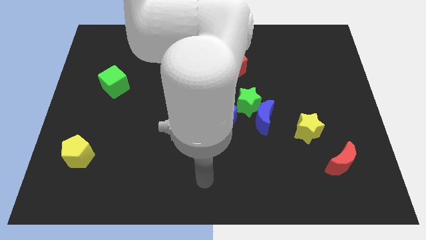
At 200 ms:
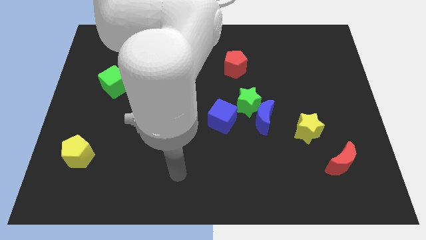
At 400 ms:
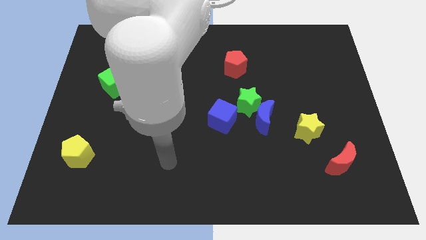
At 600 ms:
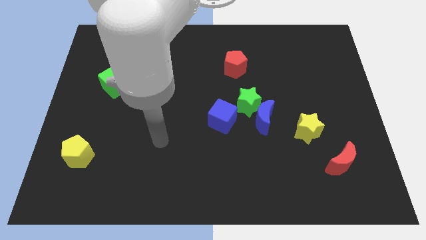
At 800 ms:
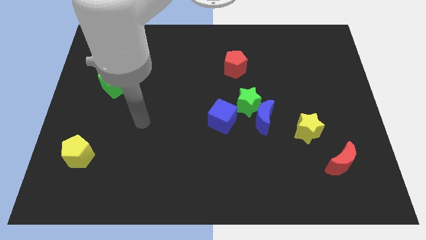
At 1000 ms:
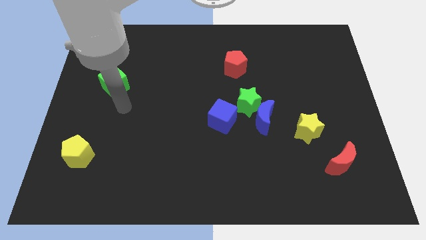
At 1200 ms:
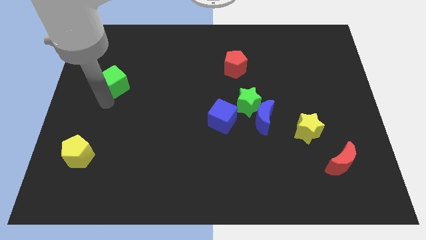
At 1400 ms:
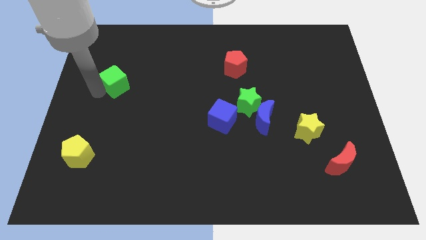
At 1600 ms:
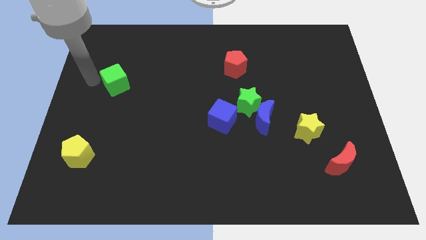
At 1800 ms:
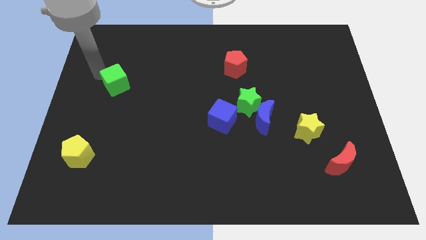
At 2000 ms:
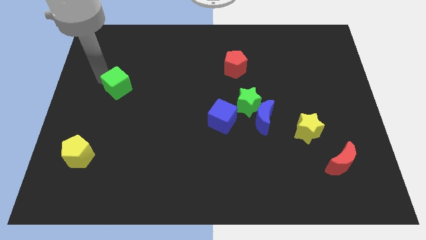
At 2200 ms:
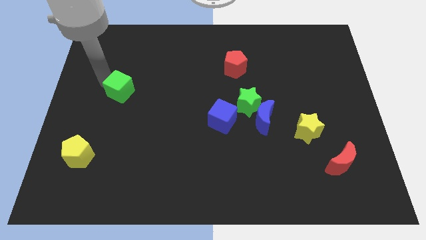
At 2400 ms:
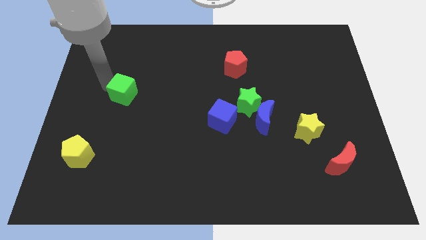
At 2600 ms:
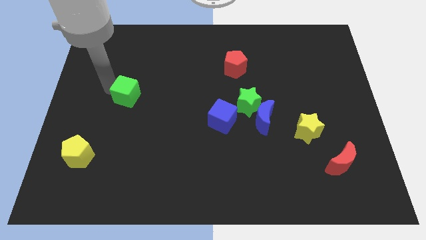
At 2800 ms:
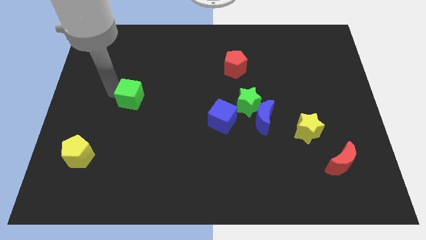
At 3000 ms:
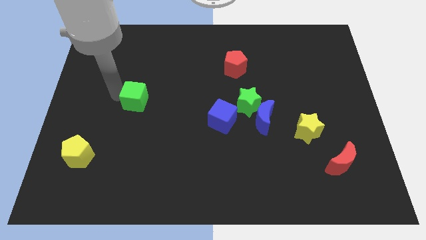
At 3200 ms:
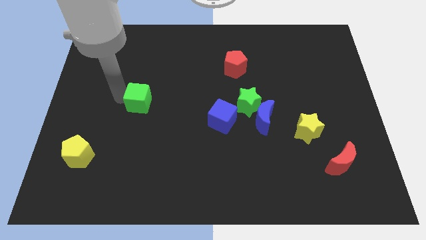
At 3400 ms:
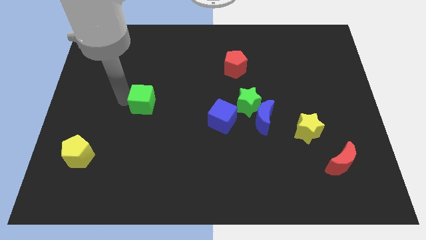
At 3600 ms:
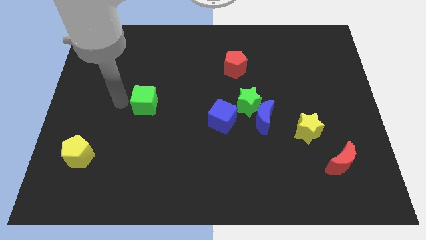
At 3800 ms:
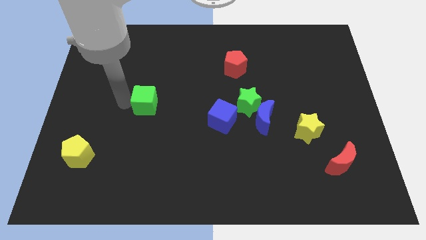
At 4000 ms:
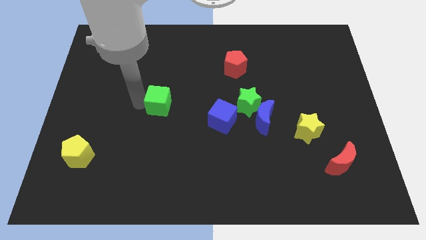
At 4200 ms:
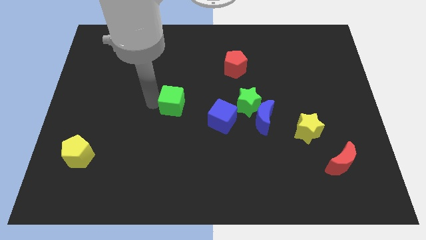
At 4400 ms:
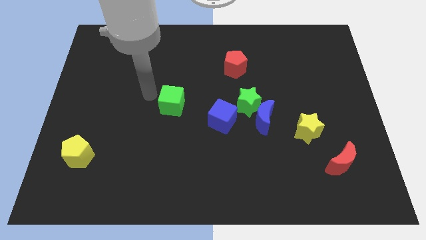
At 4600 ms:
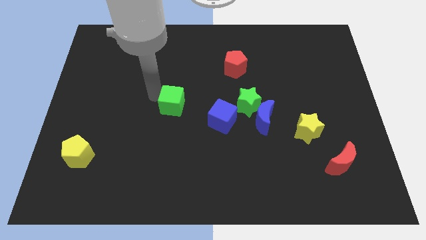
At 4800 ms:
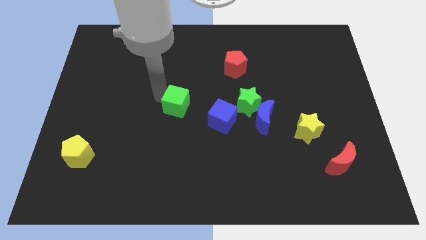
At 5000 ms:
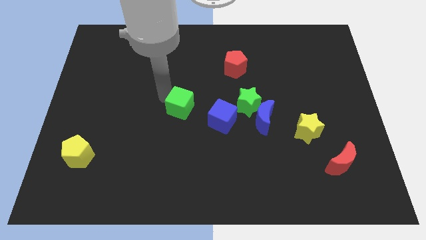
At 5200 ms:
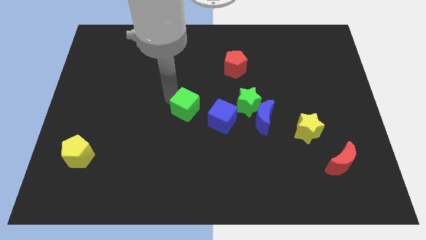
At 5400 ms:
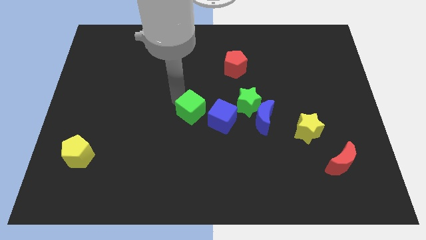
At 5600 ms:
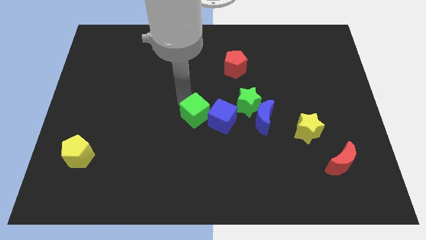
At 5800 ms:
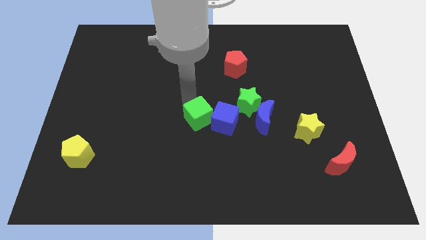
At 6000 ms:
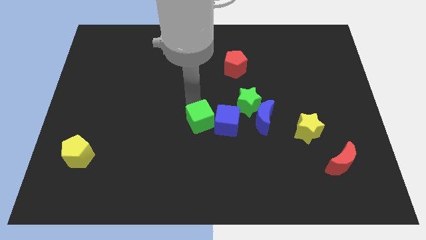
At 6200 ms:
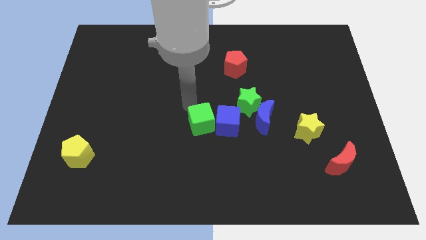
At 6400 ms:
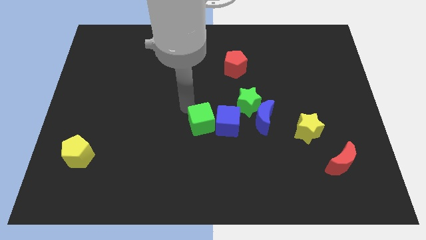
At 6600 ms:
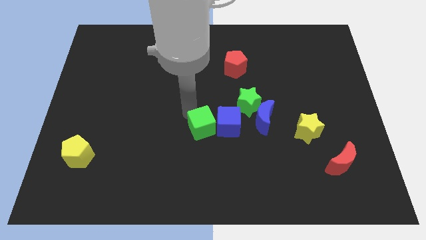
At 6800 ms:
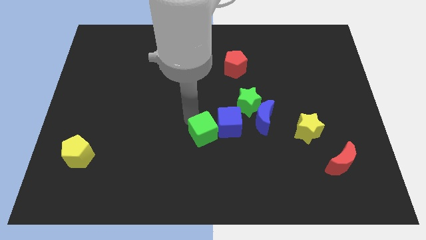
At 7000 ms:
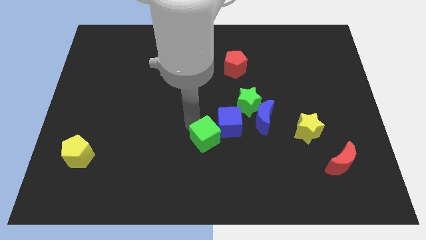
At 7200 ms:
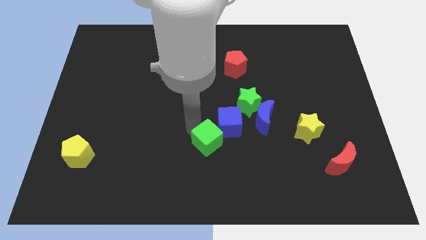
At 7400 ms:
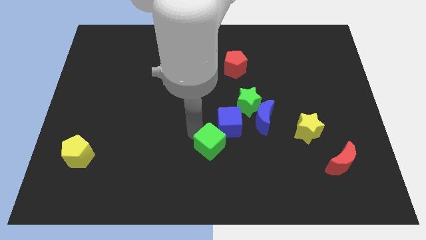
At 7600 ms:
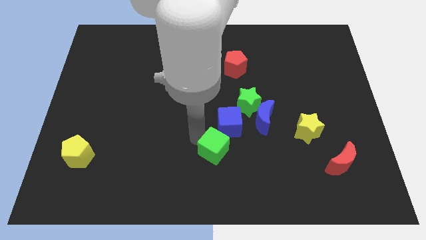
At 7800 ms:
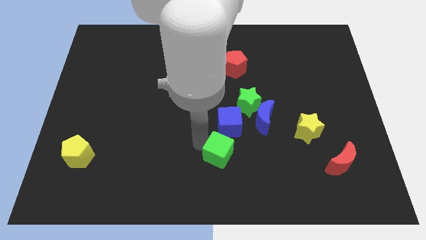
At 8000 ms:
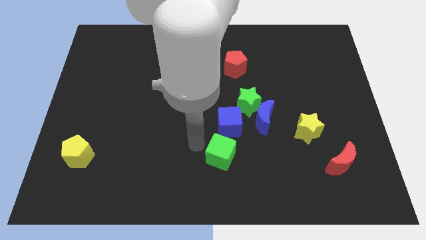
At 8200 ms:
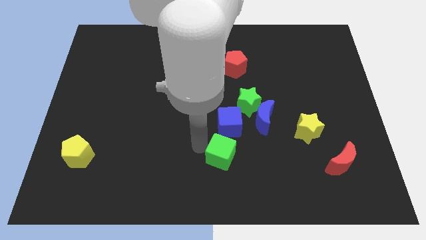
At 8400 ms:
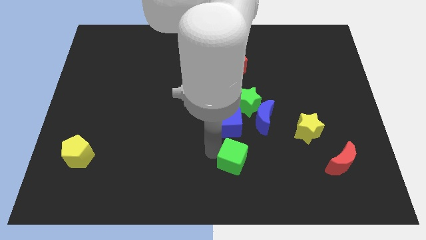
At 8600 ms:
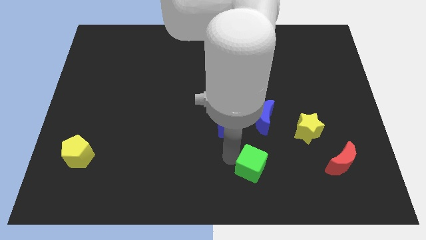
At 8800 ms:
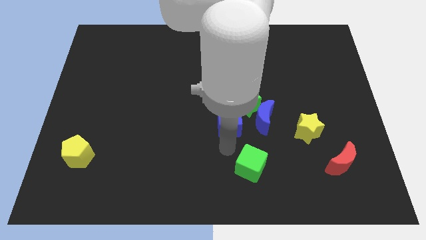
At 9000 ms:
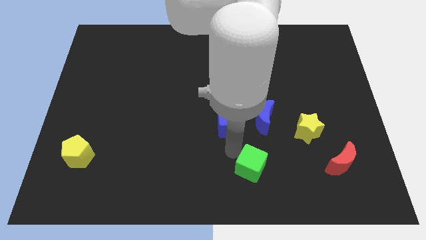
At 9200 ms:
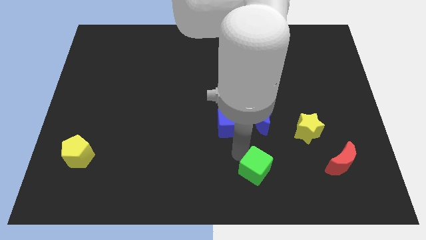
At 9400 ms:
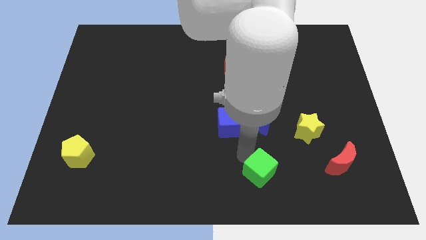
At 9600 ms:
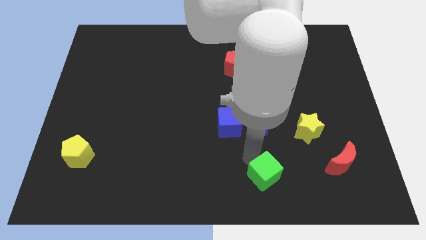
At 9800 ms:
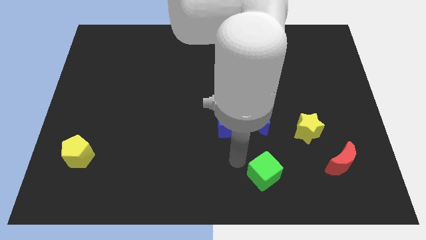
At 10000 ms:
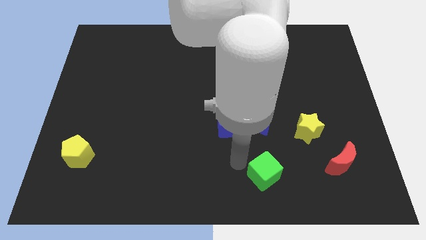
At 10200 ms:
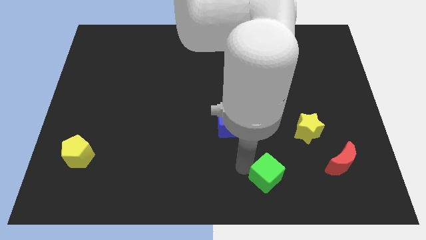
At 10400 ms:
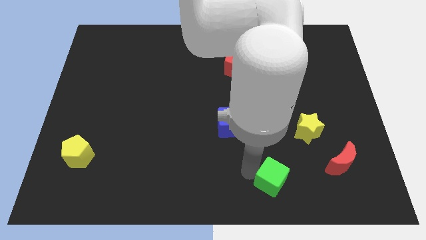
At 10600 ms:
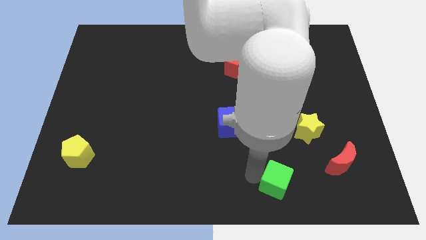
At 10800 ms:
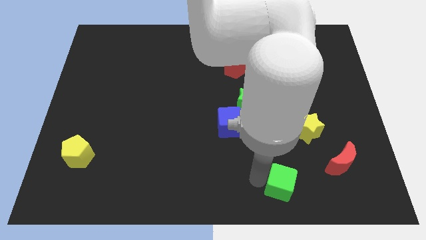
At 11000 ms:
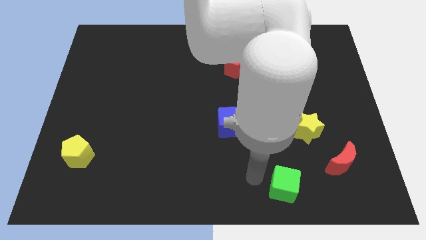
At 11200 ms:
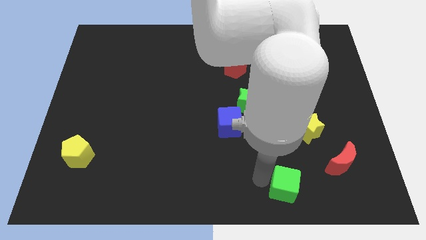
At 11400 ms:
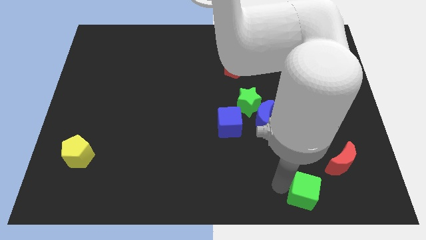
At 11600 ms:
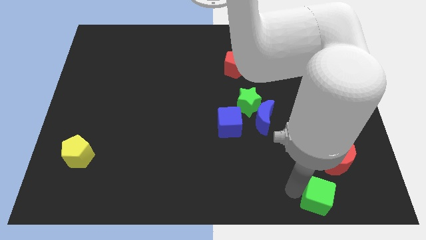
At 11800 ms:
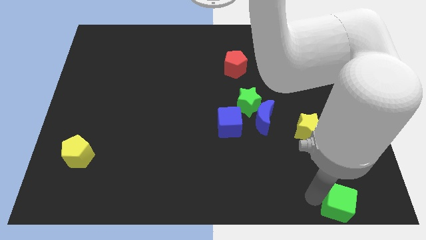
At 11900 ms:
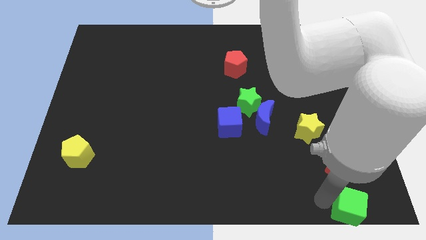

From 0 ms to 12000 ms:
put the green cube to the bottom right of the board

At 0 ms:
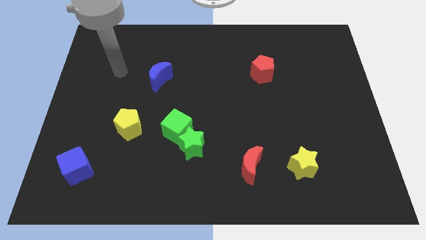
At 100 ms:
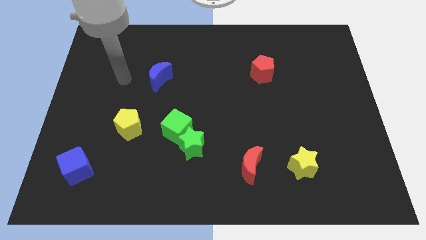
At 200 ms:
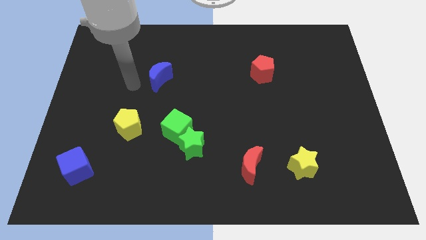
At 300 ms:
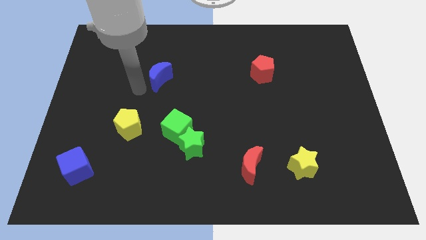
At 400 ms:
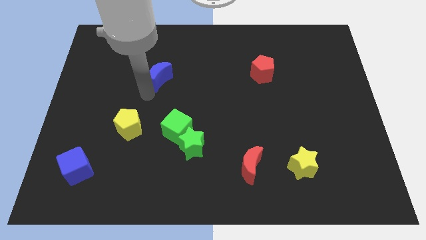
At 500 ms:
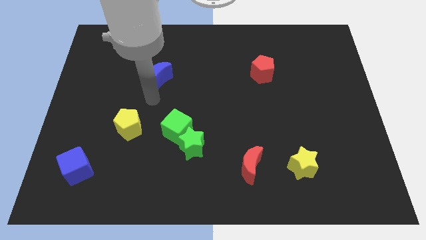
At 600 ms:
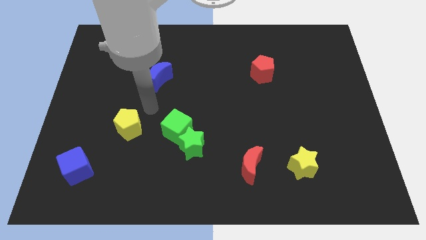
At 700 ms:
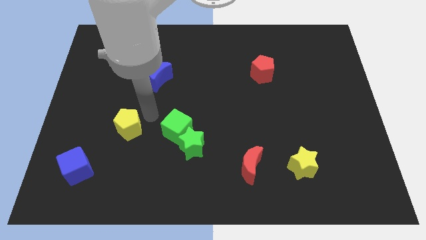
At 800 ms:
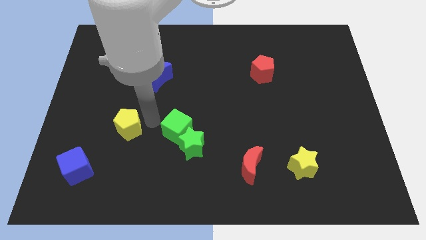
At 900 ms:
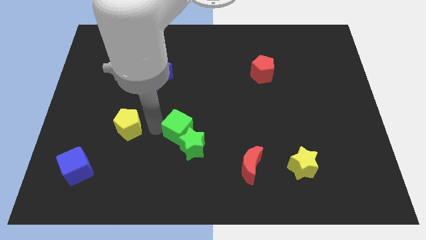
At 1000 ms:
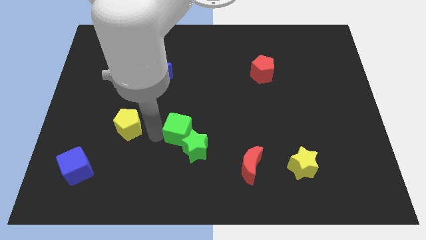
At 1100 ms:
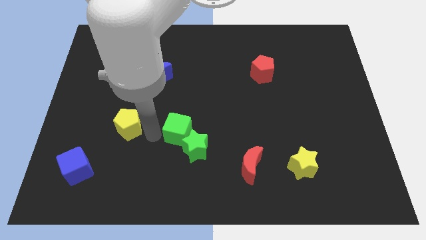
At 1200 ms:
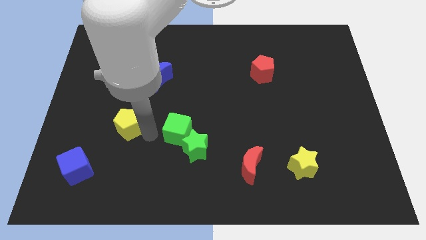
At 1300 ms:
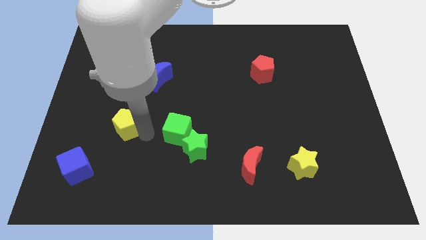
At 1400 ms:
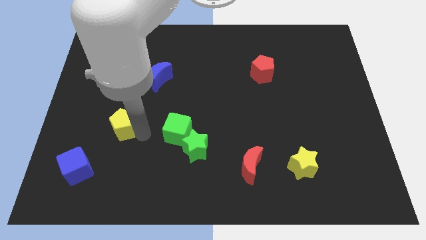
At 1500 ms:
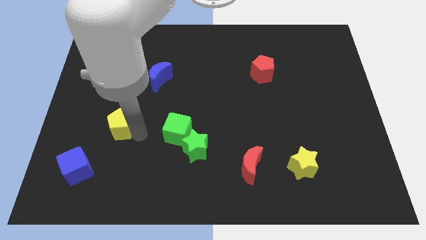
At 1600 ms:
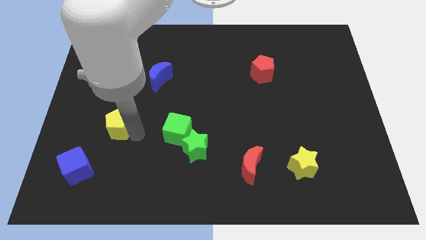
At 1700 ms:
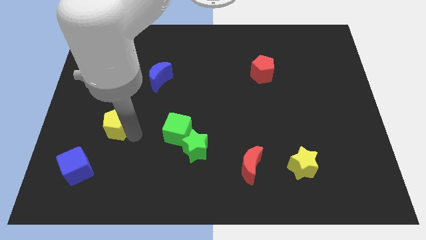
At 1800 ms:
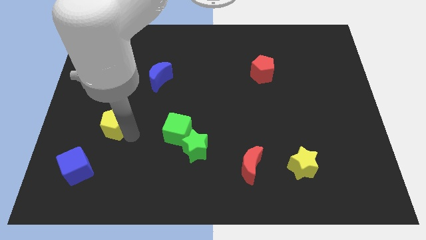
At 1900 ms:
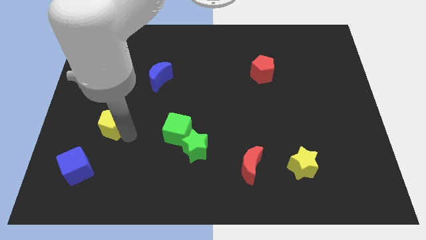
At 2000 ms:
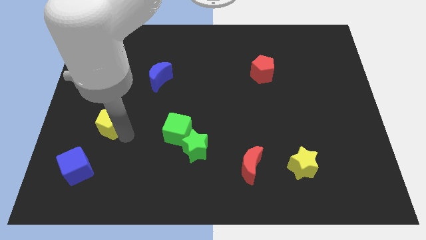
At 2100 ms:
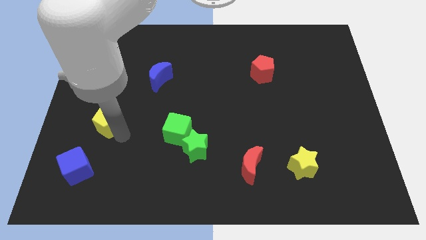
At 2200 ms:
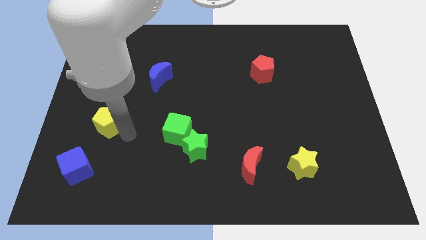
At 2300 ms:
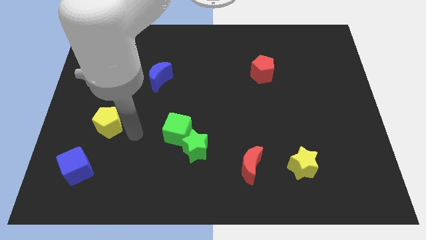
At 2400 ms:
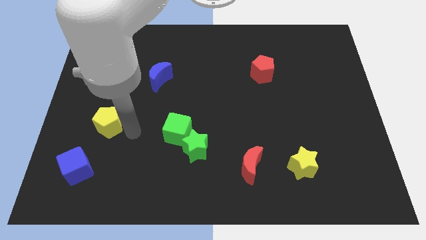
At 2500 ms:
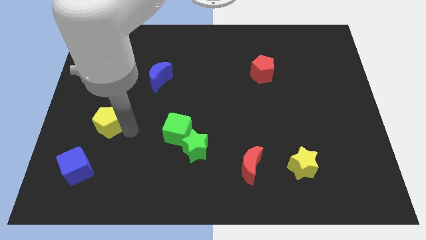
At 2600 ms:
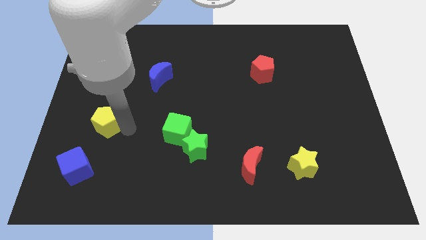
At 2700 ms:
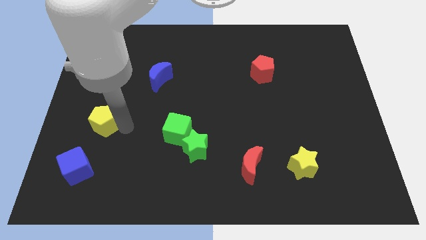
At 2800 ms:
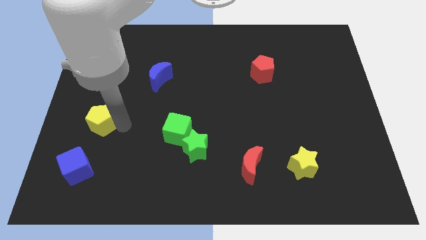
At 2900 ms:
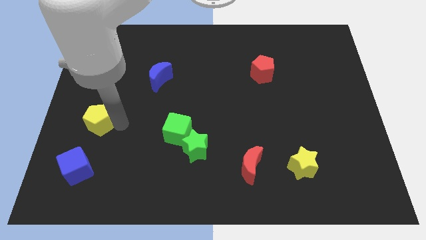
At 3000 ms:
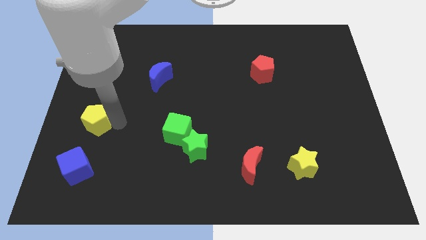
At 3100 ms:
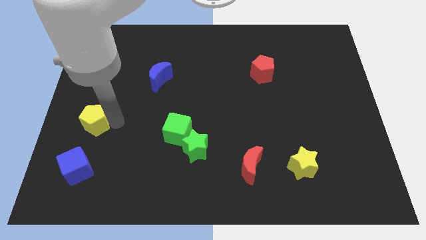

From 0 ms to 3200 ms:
move the yellow pentagon to the center left
